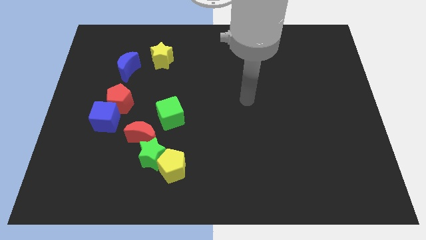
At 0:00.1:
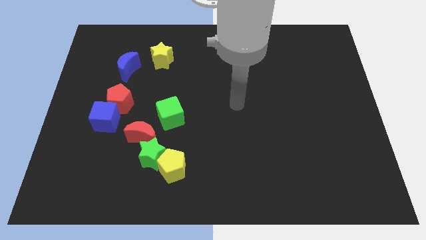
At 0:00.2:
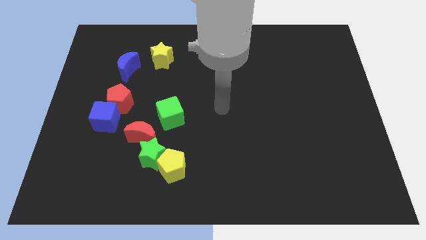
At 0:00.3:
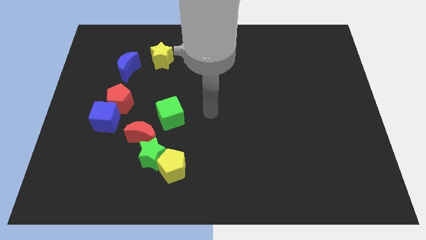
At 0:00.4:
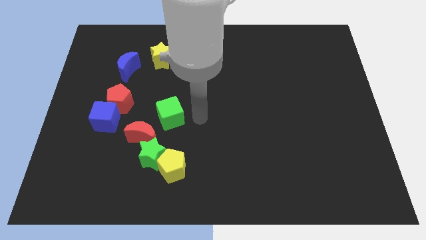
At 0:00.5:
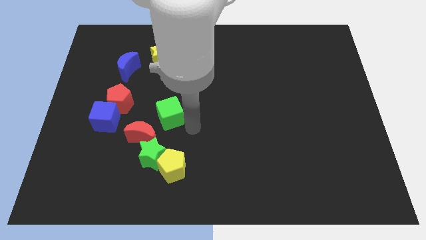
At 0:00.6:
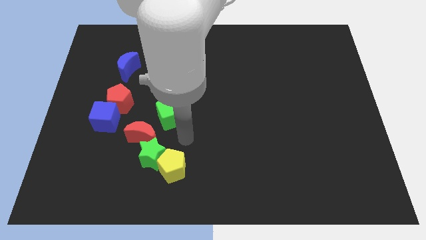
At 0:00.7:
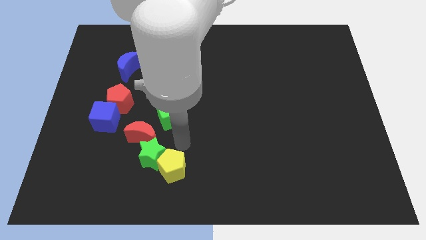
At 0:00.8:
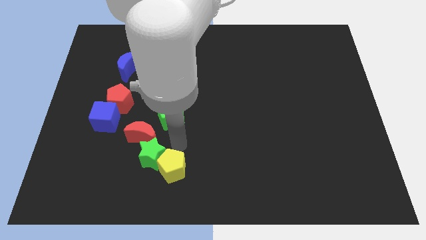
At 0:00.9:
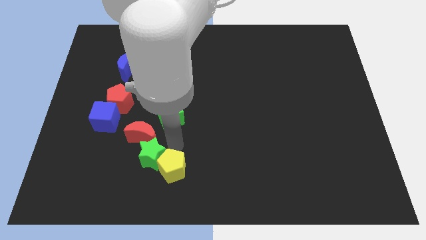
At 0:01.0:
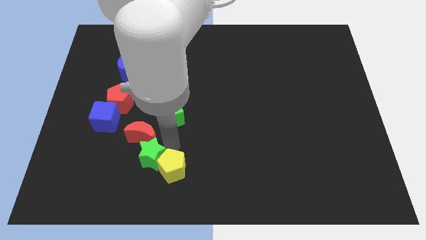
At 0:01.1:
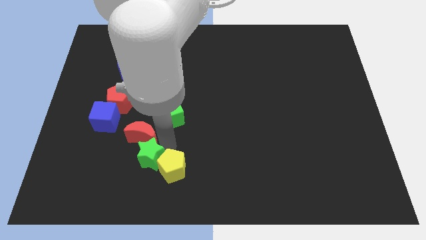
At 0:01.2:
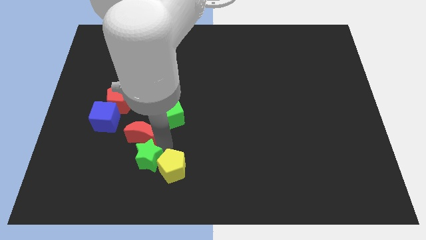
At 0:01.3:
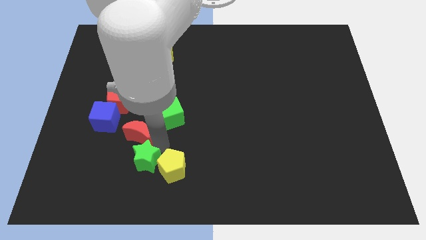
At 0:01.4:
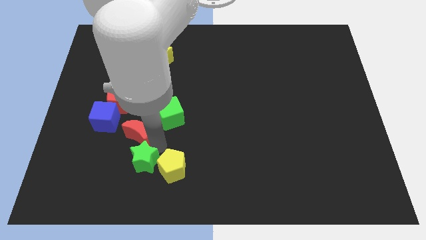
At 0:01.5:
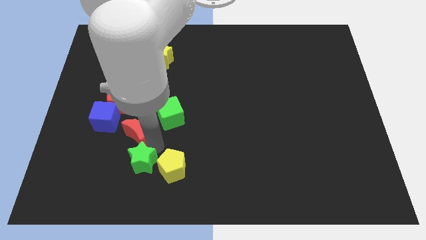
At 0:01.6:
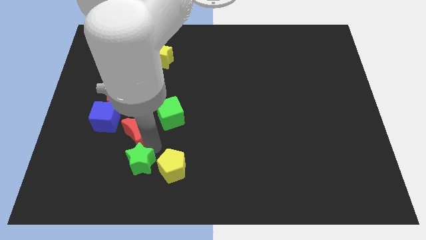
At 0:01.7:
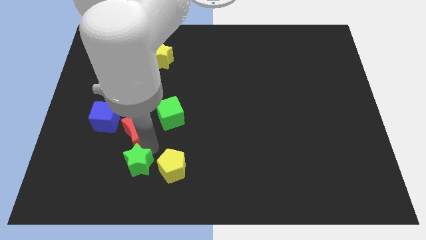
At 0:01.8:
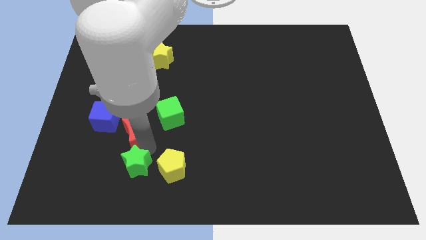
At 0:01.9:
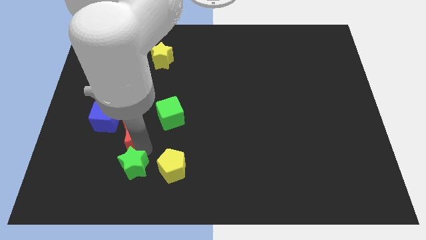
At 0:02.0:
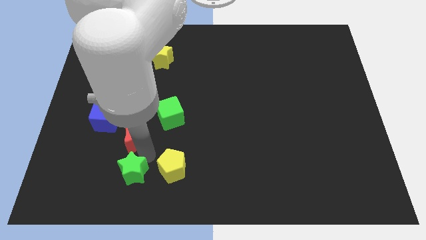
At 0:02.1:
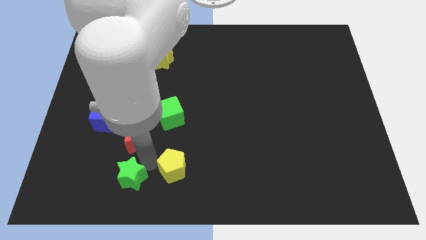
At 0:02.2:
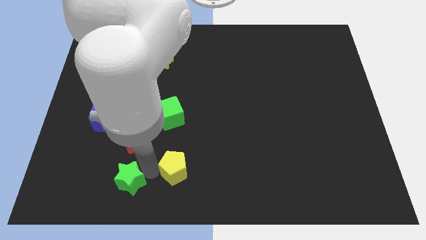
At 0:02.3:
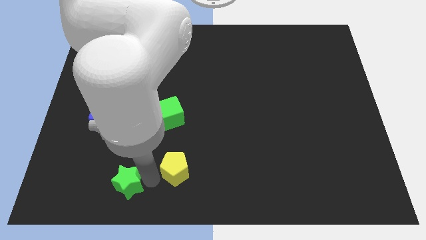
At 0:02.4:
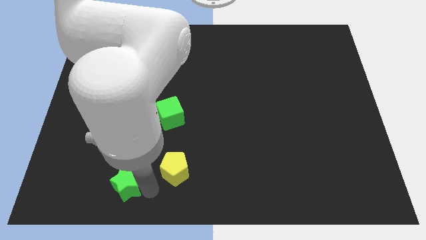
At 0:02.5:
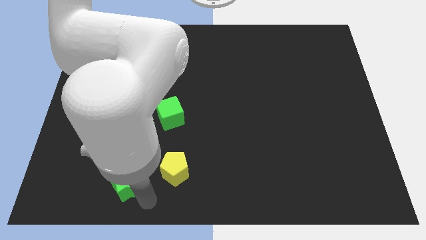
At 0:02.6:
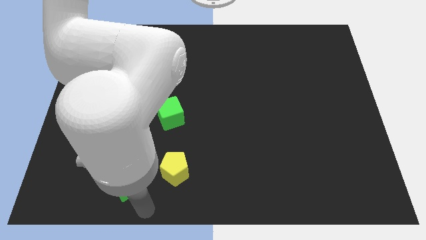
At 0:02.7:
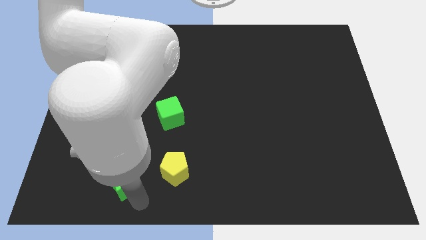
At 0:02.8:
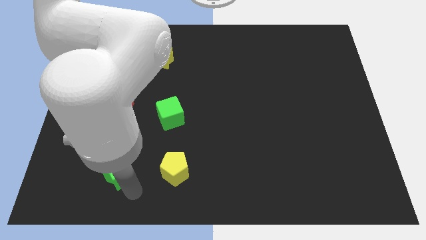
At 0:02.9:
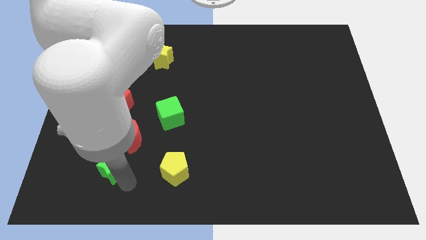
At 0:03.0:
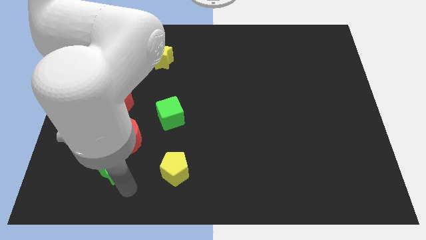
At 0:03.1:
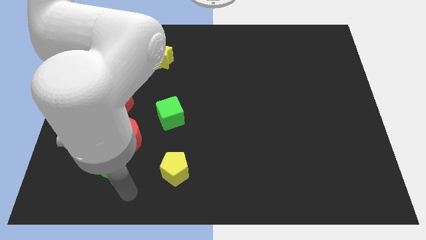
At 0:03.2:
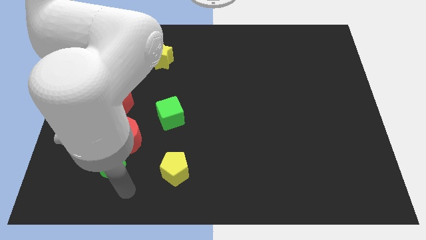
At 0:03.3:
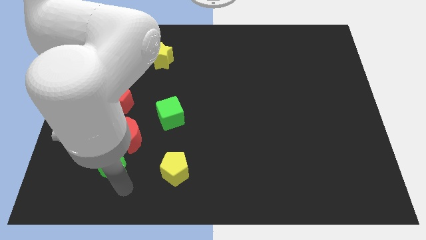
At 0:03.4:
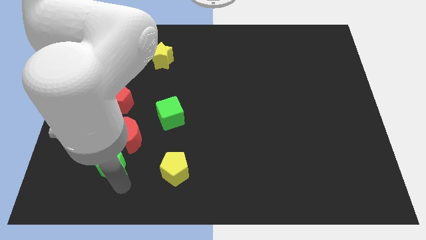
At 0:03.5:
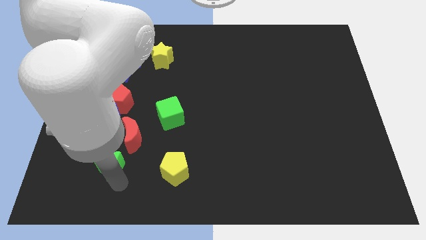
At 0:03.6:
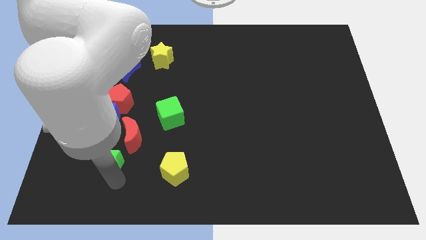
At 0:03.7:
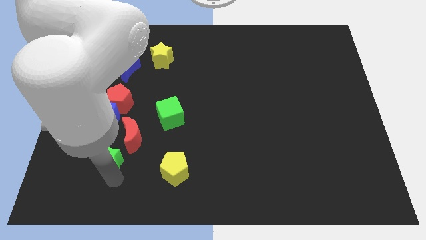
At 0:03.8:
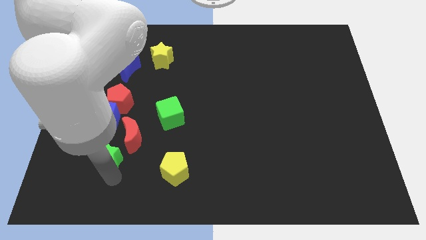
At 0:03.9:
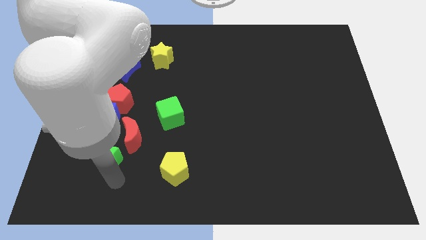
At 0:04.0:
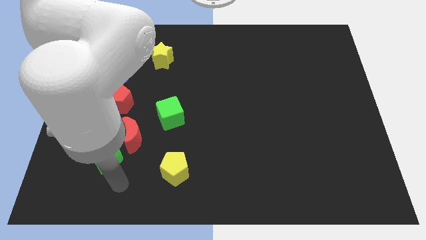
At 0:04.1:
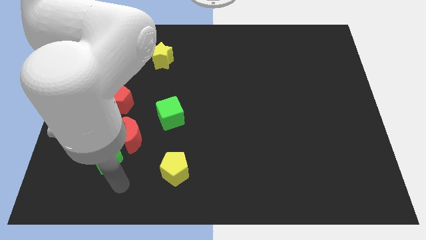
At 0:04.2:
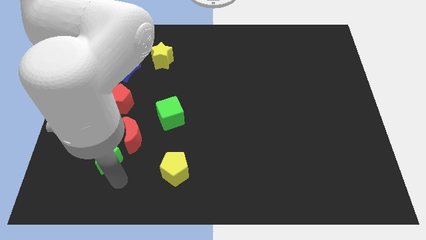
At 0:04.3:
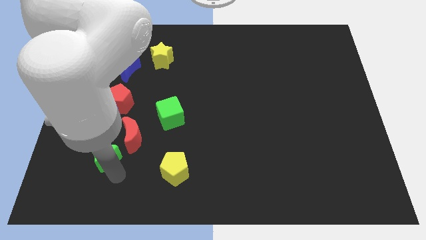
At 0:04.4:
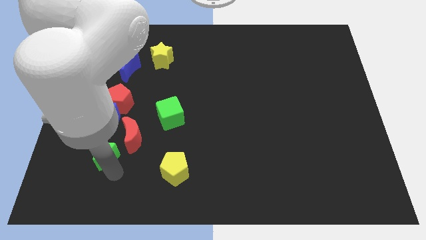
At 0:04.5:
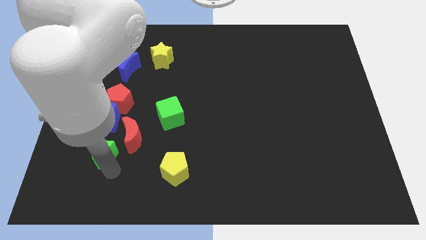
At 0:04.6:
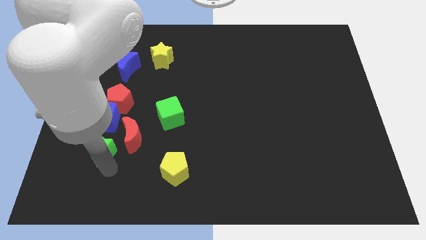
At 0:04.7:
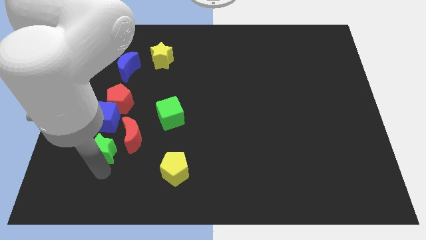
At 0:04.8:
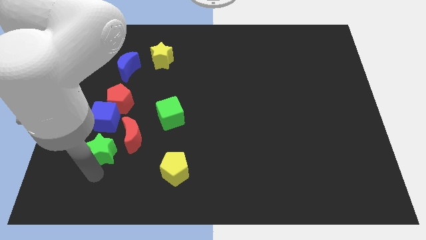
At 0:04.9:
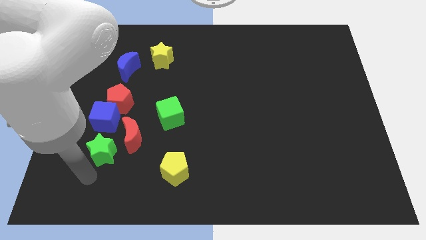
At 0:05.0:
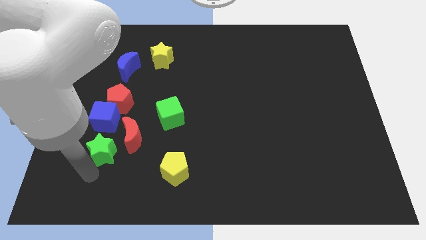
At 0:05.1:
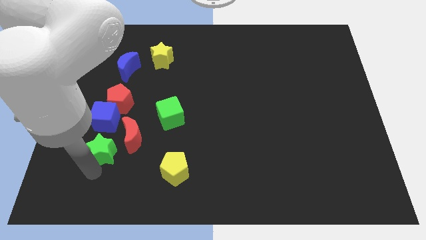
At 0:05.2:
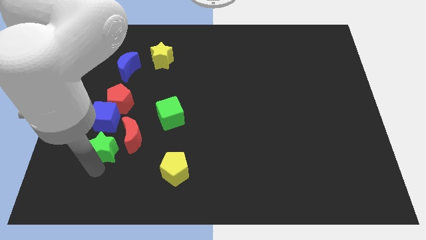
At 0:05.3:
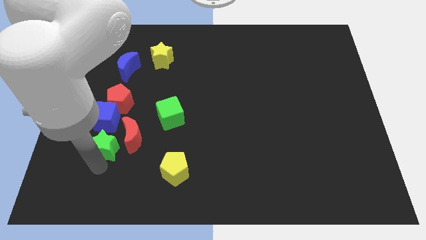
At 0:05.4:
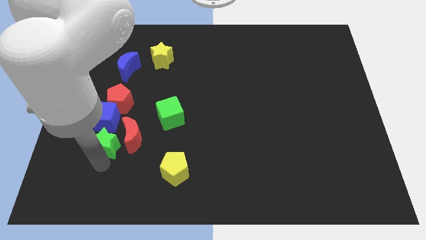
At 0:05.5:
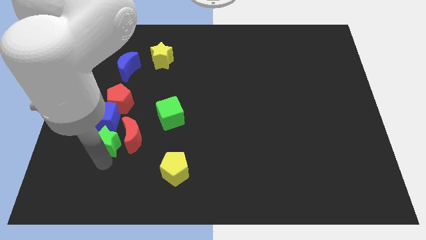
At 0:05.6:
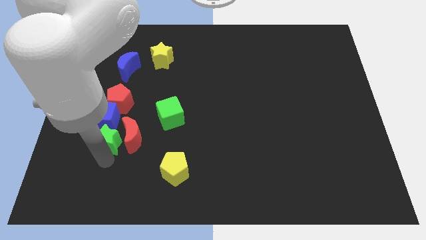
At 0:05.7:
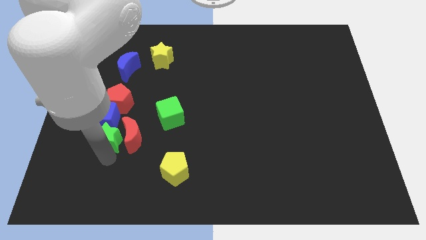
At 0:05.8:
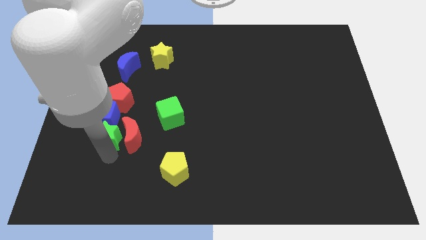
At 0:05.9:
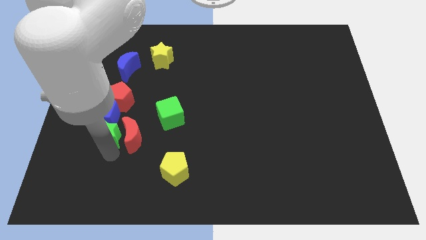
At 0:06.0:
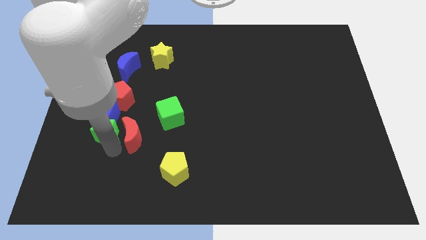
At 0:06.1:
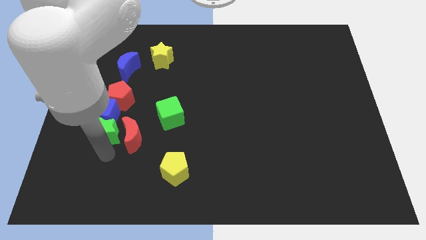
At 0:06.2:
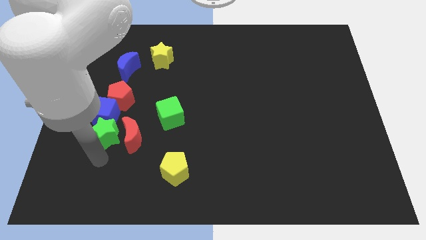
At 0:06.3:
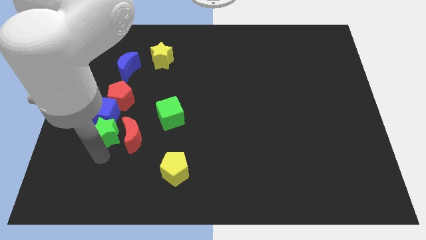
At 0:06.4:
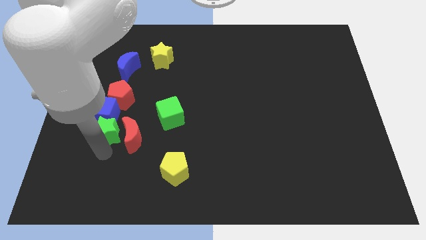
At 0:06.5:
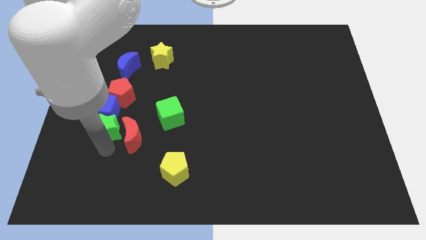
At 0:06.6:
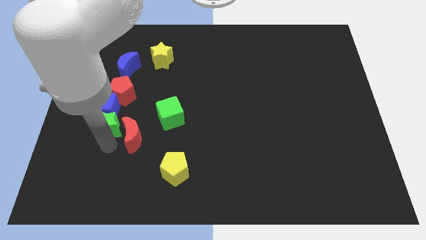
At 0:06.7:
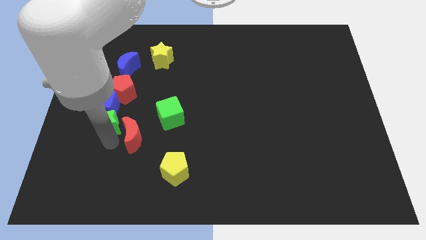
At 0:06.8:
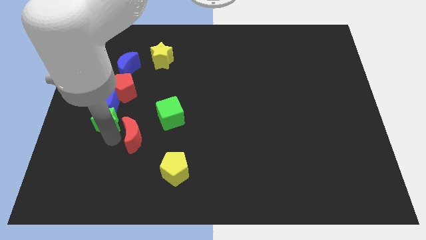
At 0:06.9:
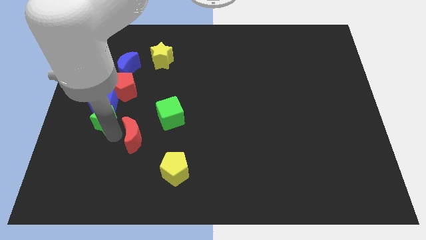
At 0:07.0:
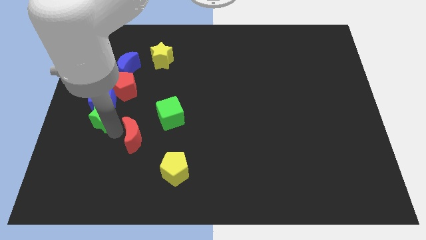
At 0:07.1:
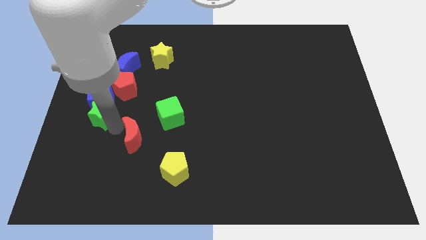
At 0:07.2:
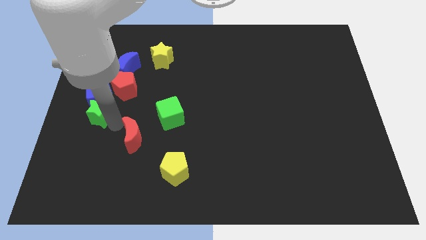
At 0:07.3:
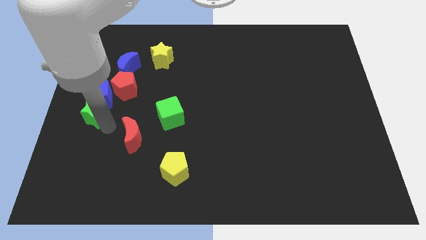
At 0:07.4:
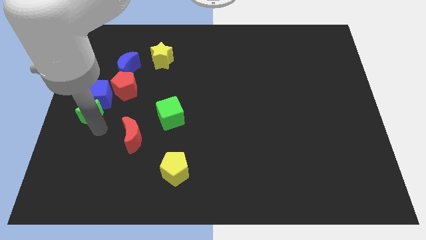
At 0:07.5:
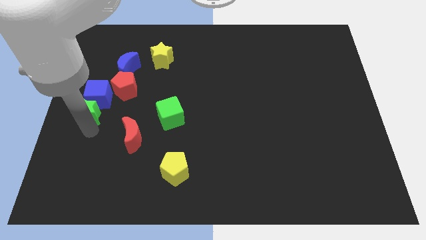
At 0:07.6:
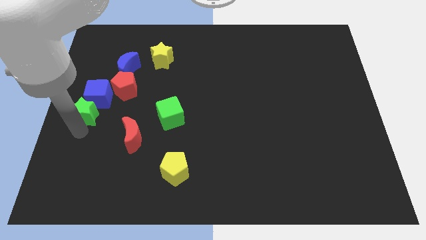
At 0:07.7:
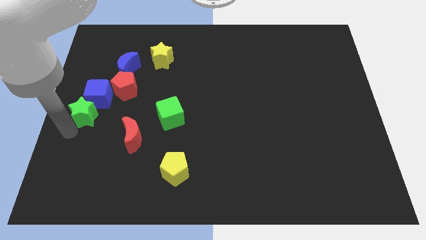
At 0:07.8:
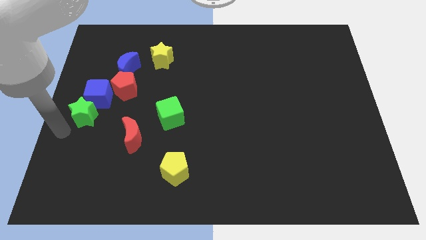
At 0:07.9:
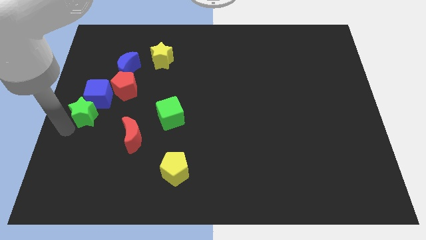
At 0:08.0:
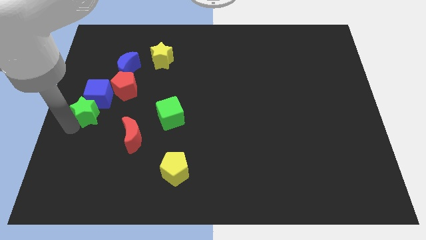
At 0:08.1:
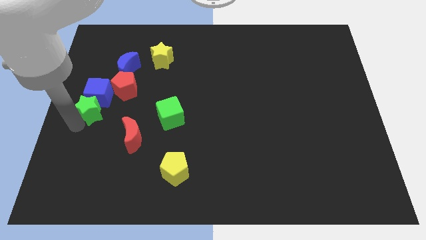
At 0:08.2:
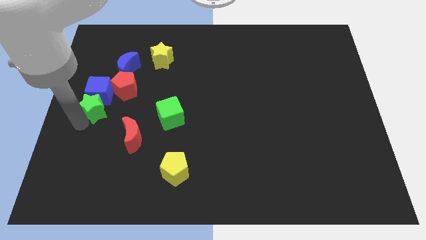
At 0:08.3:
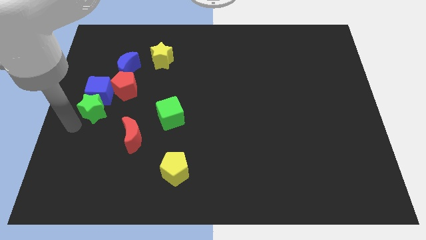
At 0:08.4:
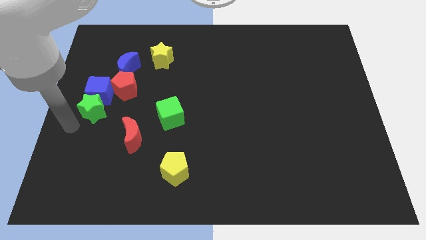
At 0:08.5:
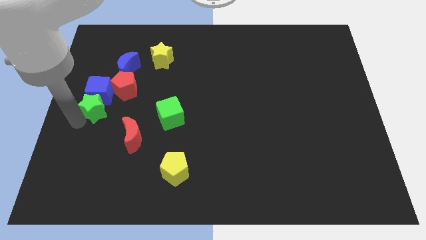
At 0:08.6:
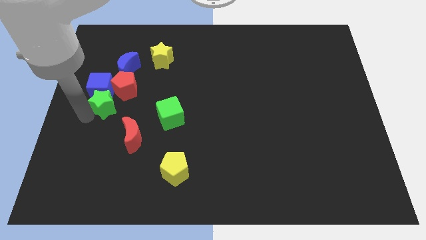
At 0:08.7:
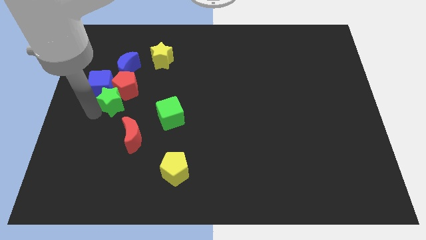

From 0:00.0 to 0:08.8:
put the green star next to the red pentagon
